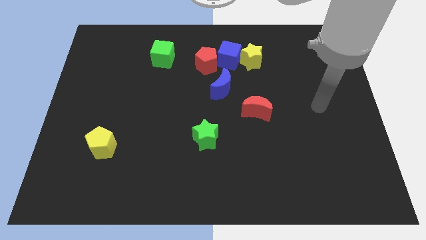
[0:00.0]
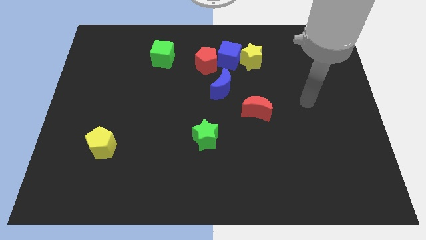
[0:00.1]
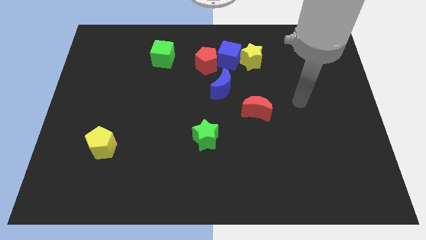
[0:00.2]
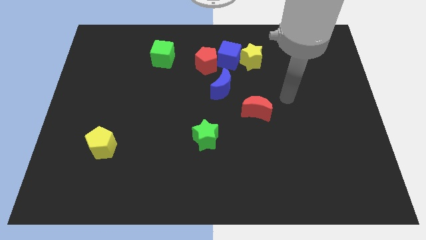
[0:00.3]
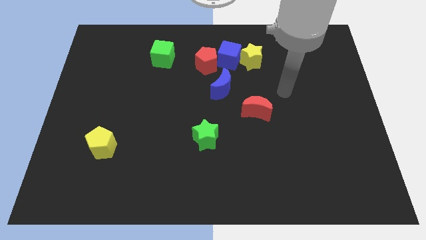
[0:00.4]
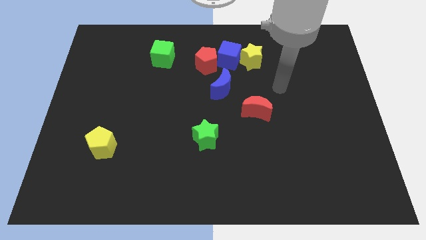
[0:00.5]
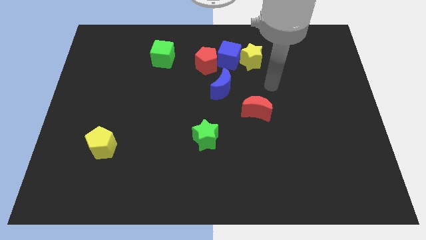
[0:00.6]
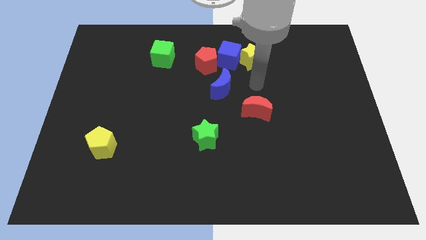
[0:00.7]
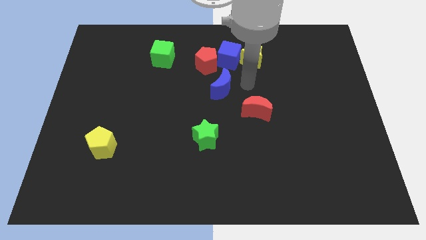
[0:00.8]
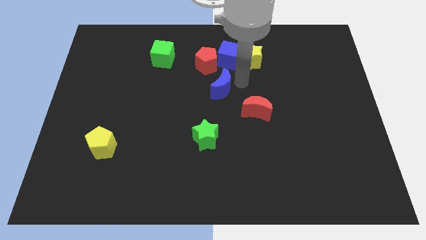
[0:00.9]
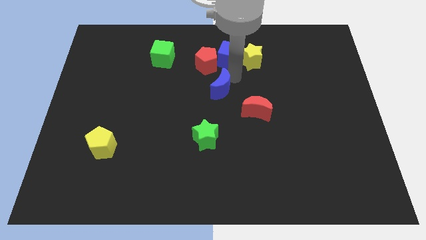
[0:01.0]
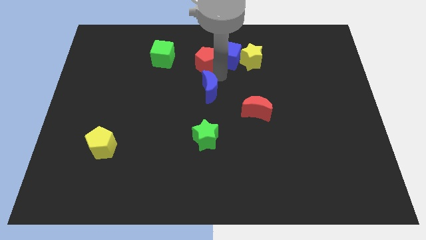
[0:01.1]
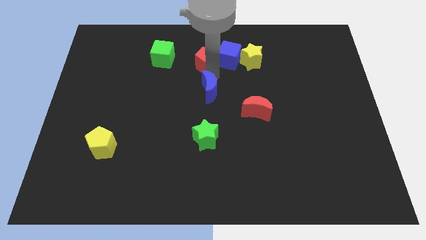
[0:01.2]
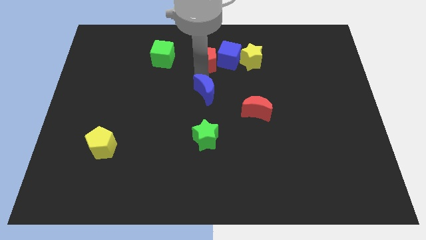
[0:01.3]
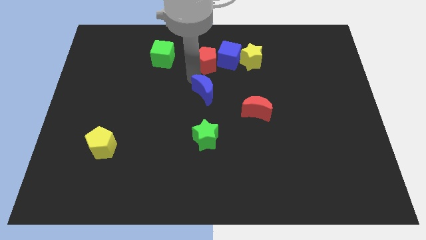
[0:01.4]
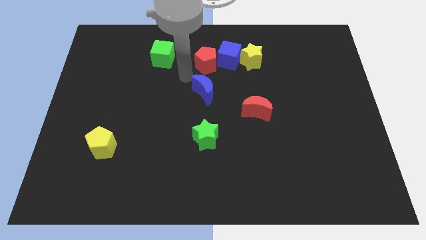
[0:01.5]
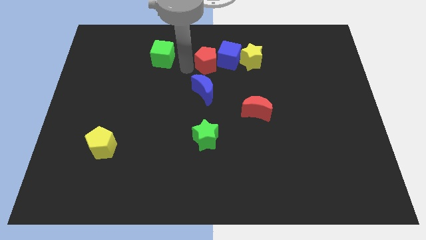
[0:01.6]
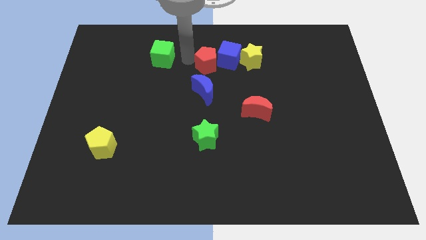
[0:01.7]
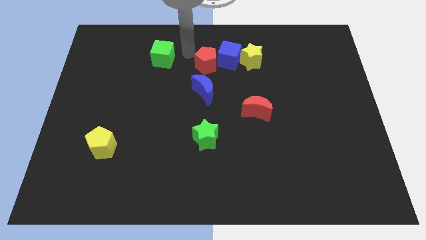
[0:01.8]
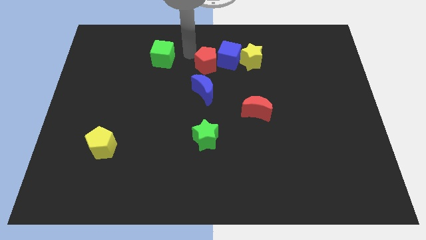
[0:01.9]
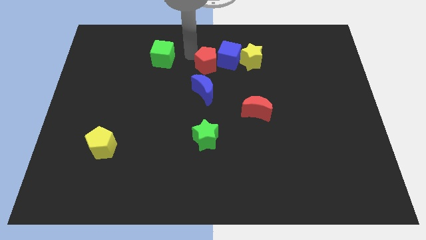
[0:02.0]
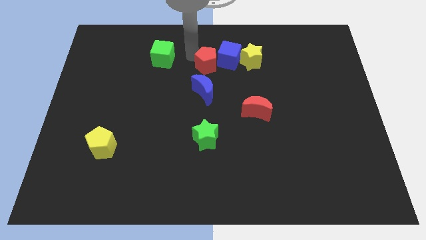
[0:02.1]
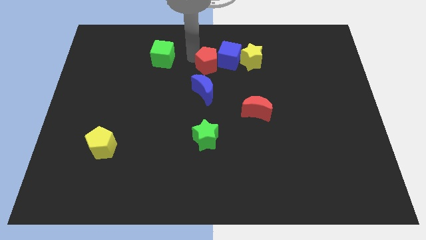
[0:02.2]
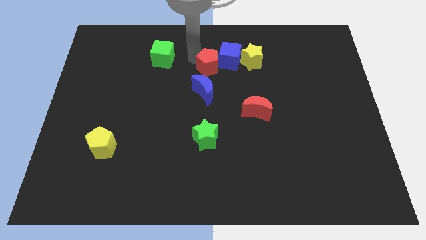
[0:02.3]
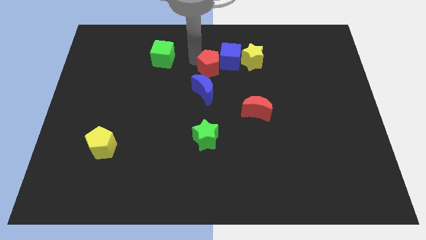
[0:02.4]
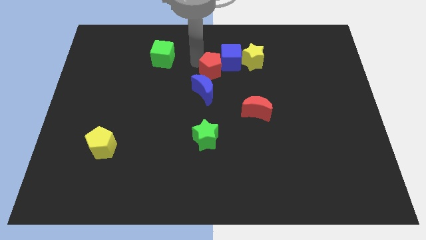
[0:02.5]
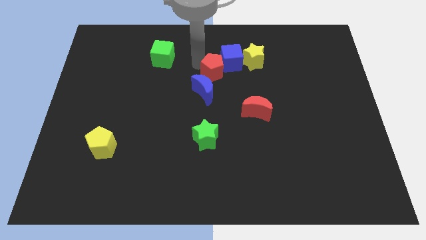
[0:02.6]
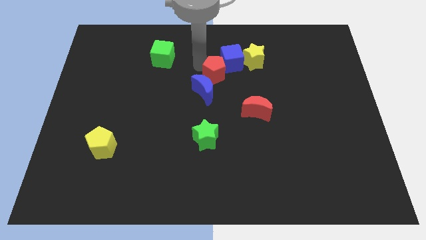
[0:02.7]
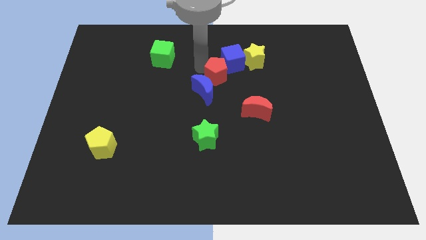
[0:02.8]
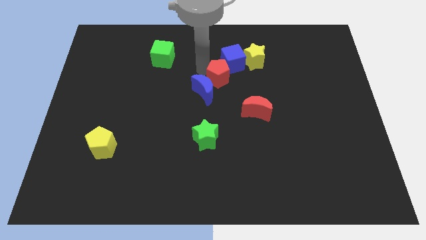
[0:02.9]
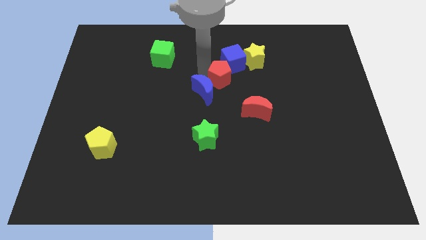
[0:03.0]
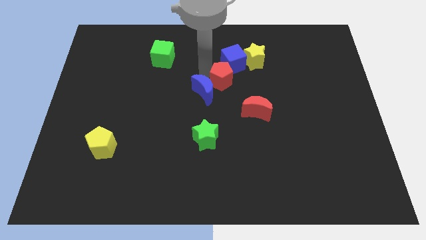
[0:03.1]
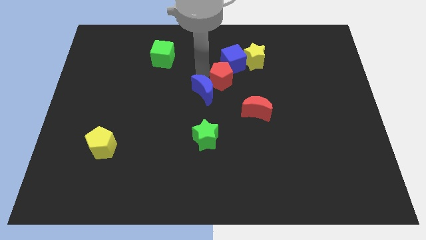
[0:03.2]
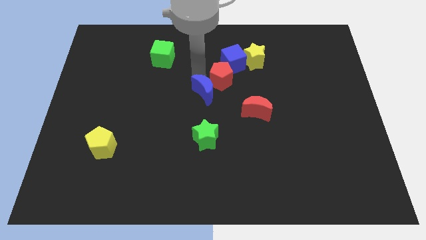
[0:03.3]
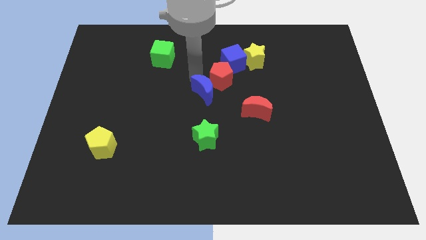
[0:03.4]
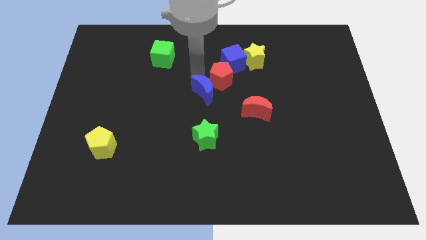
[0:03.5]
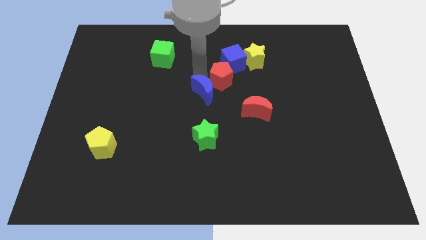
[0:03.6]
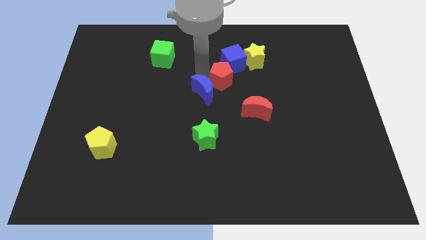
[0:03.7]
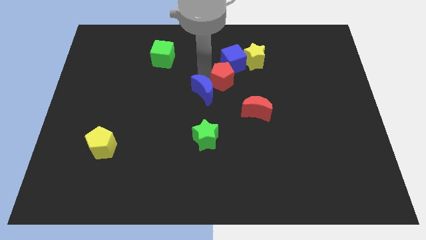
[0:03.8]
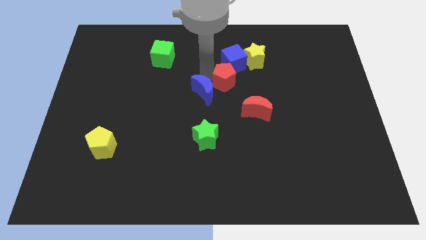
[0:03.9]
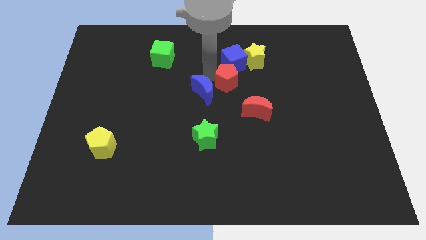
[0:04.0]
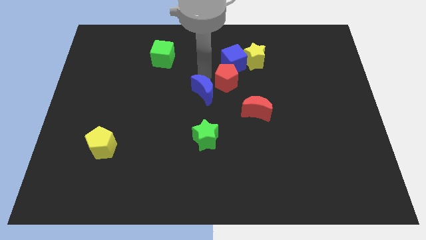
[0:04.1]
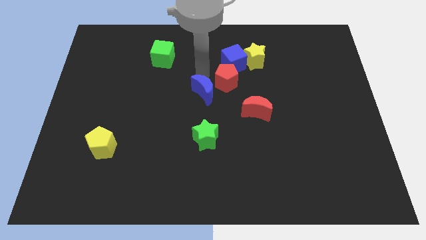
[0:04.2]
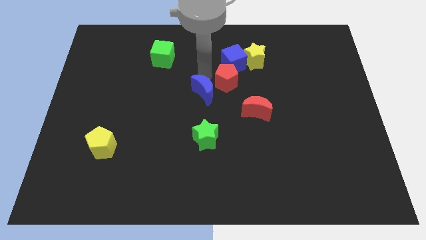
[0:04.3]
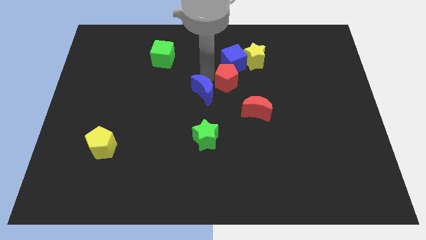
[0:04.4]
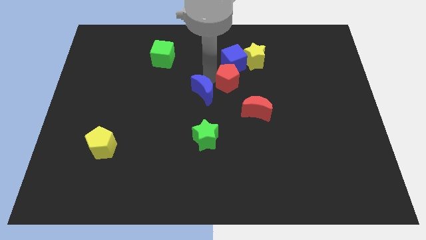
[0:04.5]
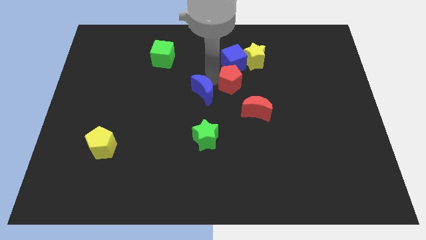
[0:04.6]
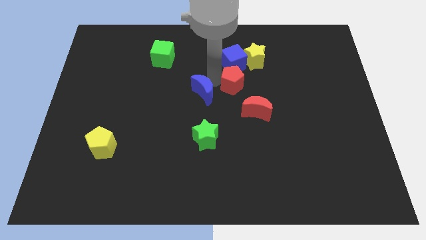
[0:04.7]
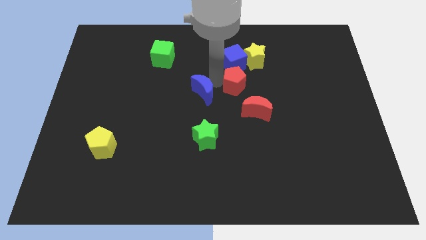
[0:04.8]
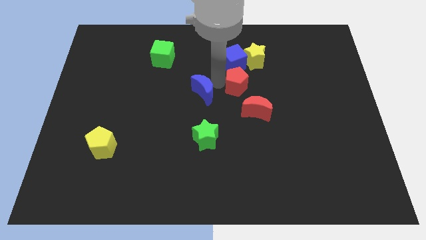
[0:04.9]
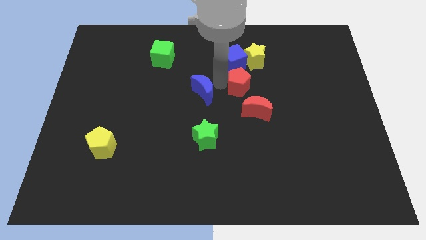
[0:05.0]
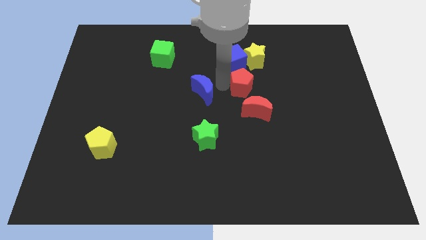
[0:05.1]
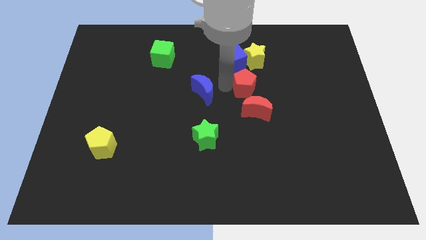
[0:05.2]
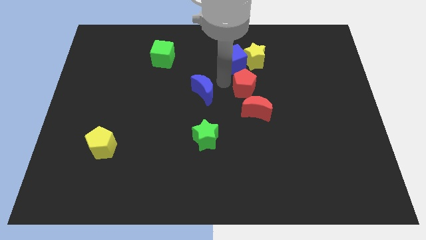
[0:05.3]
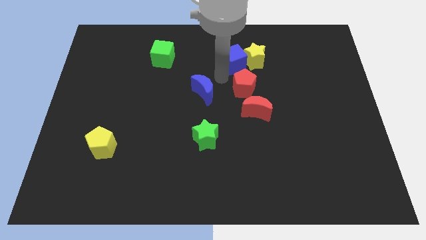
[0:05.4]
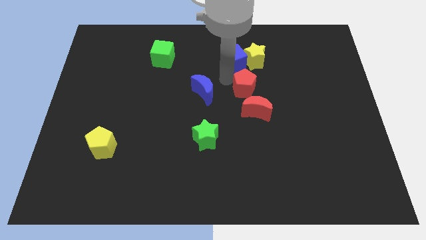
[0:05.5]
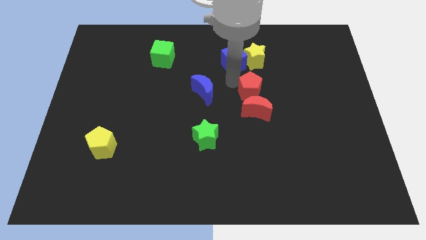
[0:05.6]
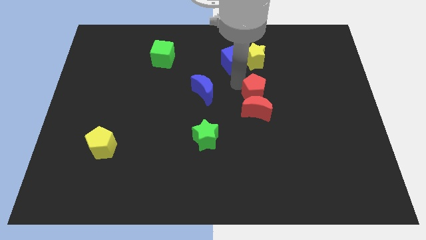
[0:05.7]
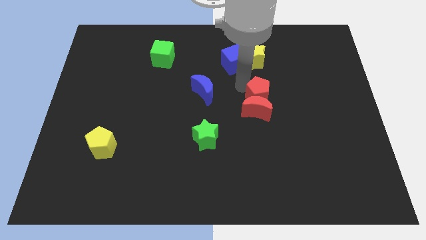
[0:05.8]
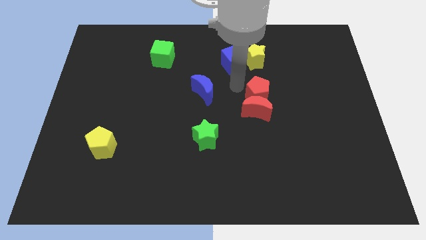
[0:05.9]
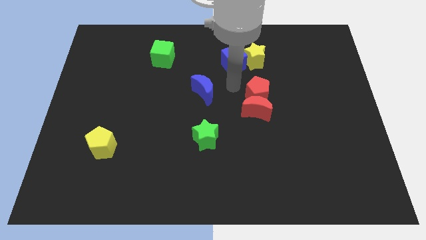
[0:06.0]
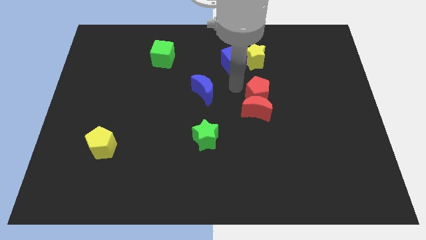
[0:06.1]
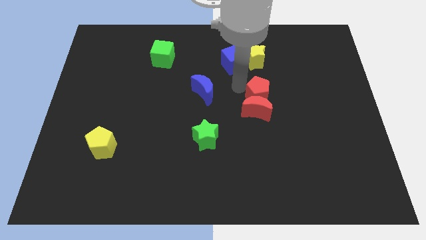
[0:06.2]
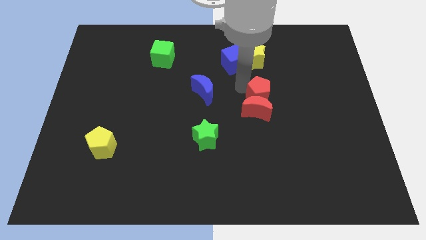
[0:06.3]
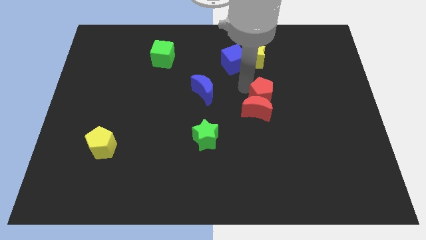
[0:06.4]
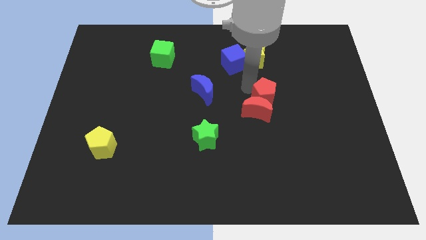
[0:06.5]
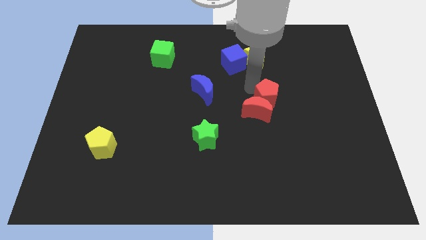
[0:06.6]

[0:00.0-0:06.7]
move the red pentagon just right of the red moon

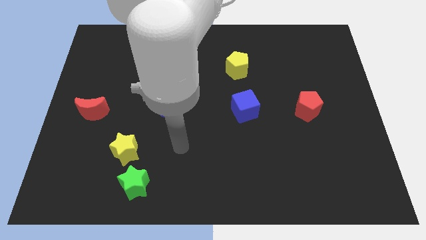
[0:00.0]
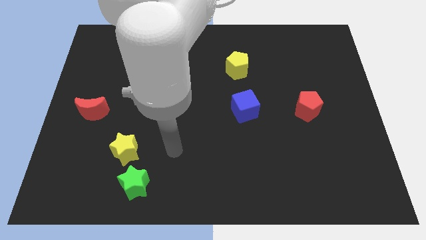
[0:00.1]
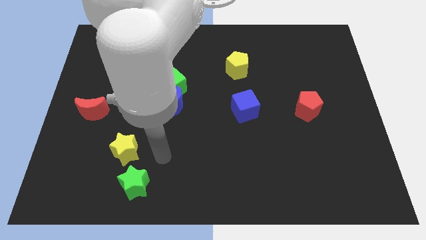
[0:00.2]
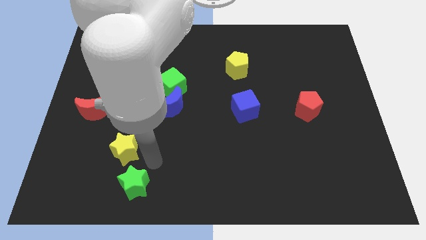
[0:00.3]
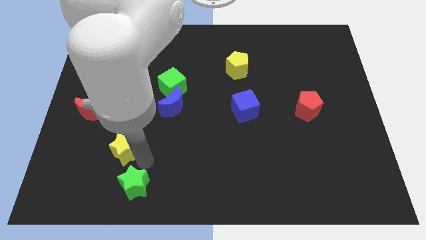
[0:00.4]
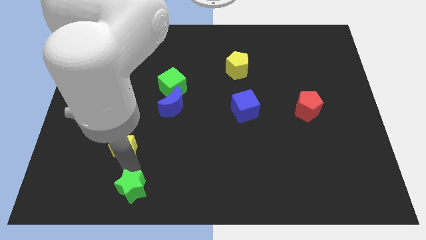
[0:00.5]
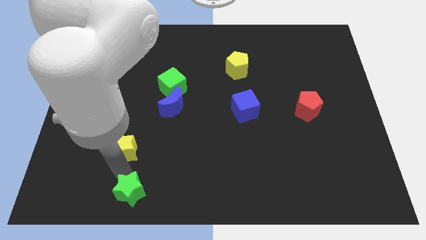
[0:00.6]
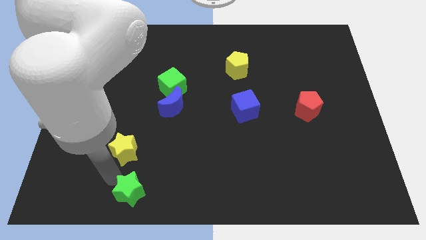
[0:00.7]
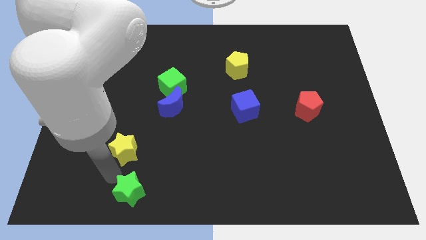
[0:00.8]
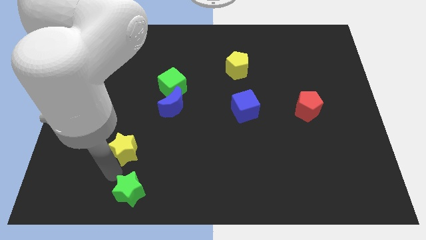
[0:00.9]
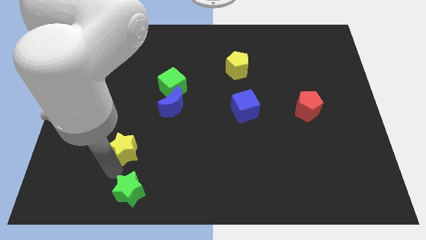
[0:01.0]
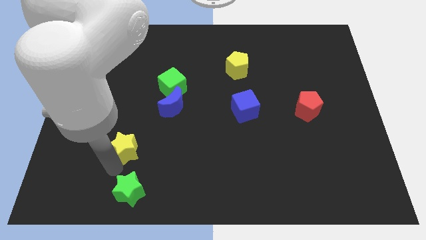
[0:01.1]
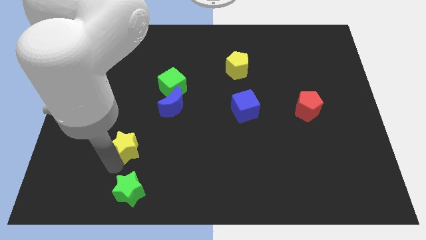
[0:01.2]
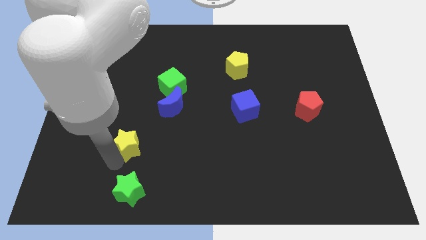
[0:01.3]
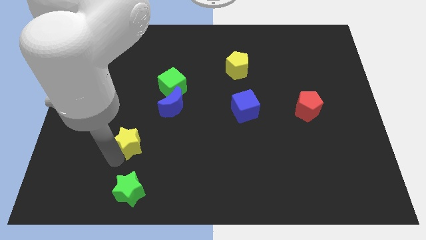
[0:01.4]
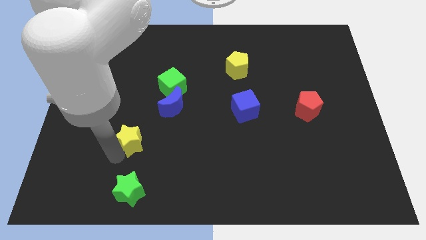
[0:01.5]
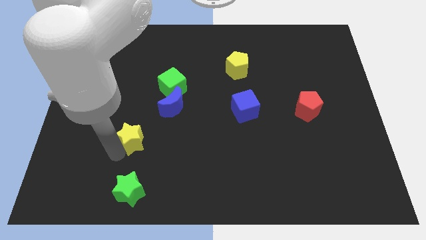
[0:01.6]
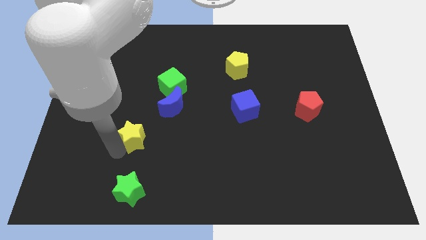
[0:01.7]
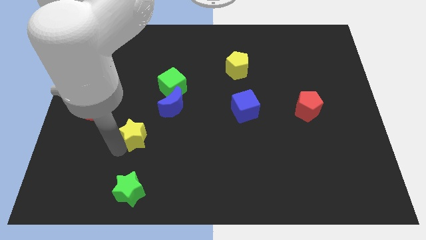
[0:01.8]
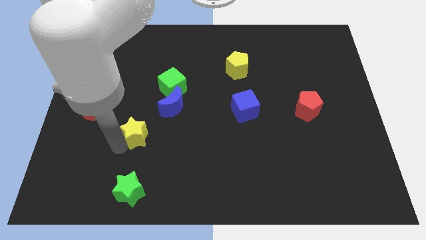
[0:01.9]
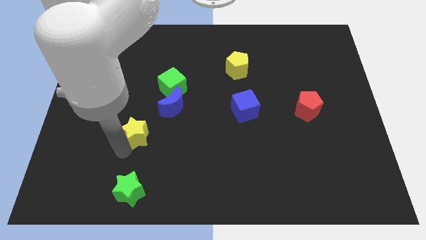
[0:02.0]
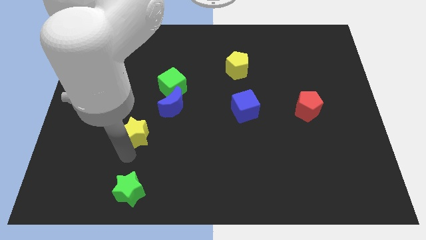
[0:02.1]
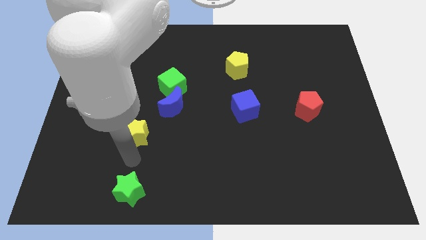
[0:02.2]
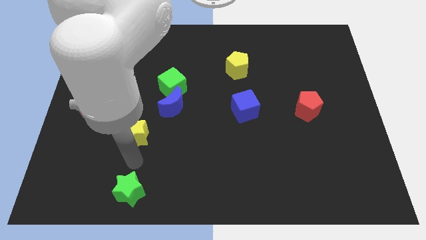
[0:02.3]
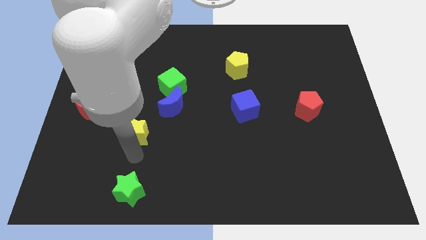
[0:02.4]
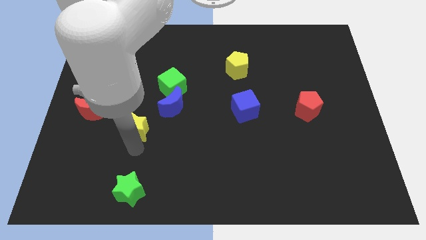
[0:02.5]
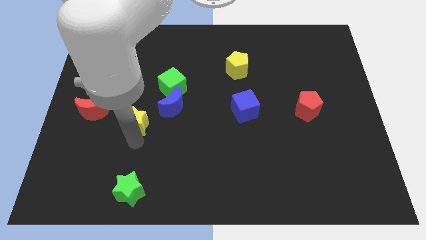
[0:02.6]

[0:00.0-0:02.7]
move the yellow star just right of the red moon
